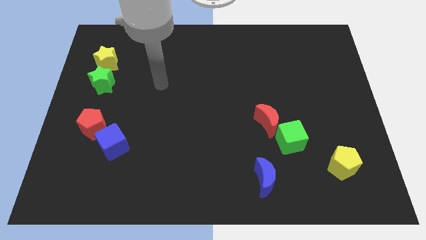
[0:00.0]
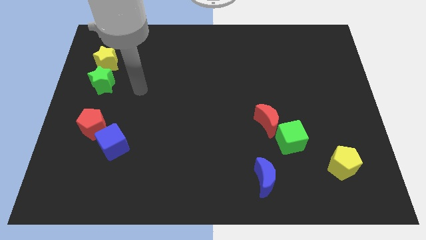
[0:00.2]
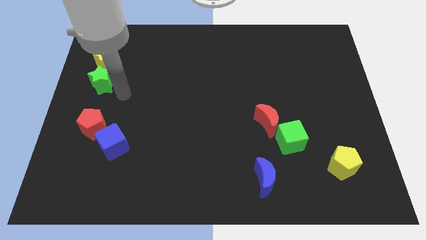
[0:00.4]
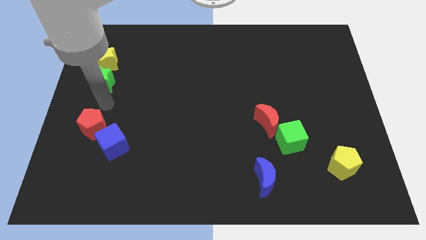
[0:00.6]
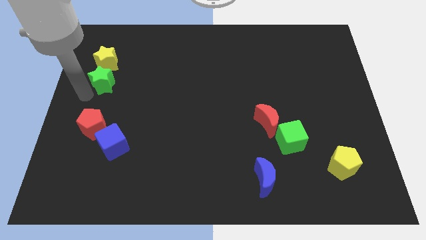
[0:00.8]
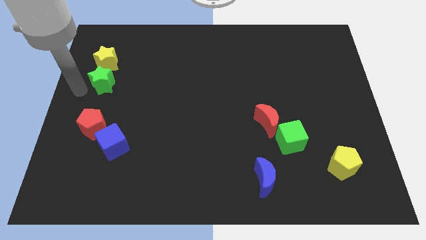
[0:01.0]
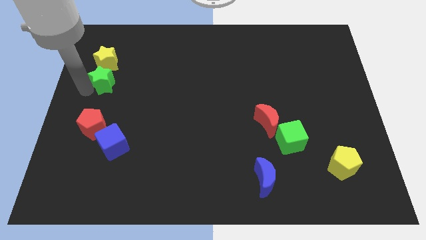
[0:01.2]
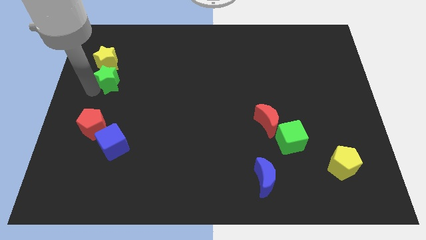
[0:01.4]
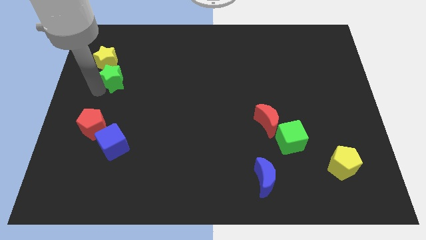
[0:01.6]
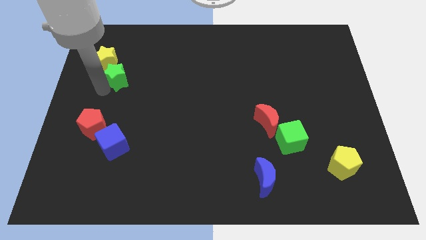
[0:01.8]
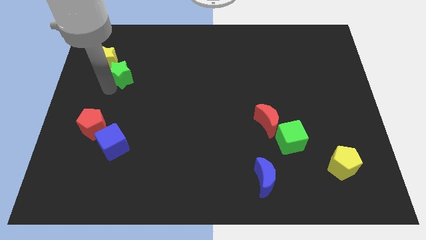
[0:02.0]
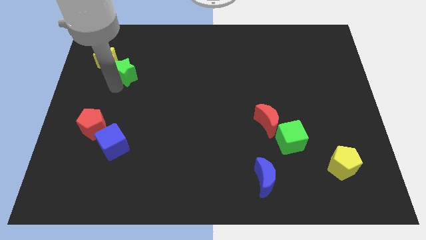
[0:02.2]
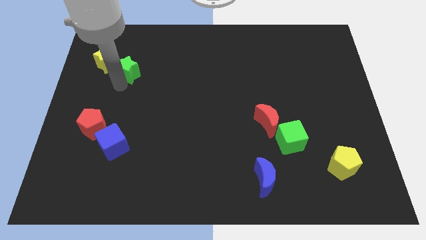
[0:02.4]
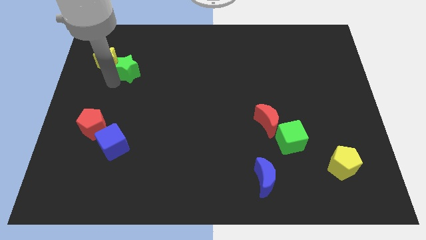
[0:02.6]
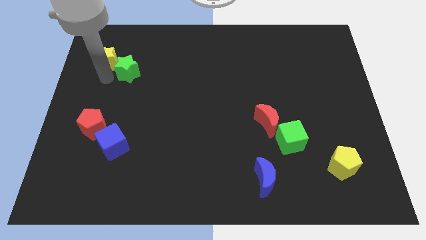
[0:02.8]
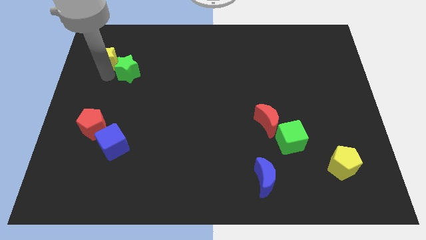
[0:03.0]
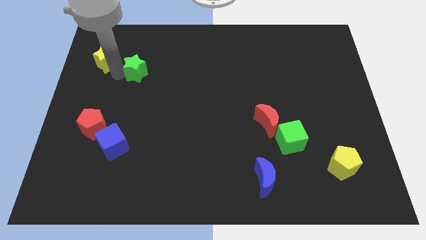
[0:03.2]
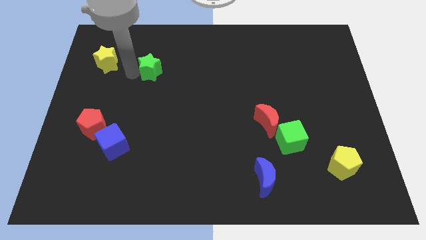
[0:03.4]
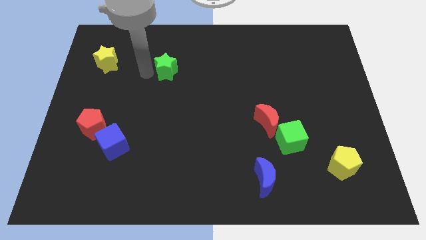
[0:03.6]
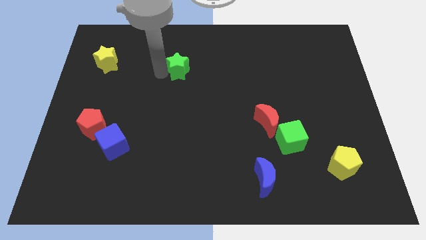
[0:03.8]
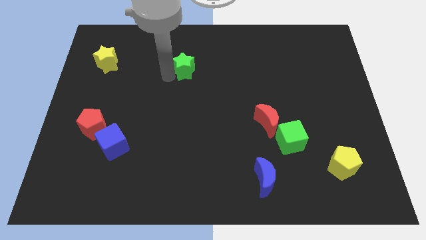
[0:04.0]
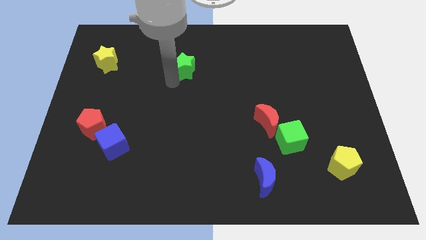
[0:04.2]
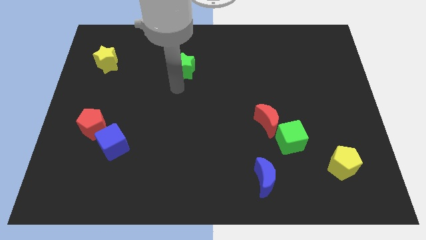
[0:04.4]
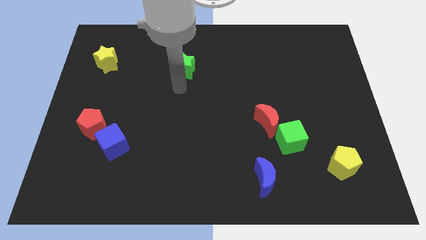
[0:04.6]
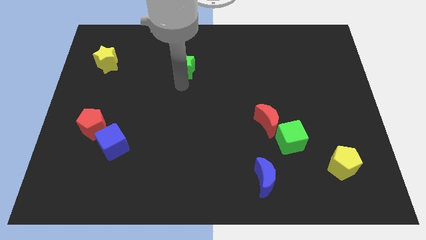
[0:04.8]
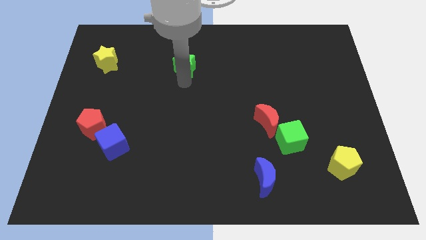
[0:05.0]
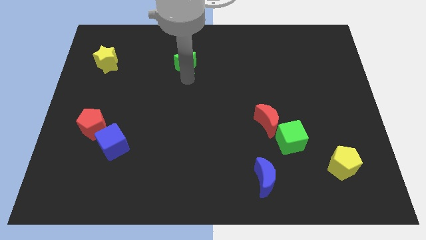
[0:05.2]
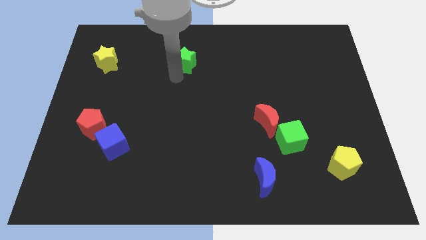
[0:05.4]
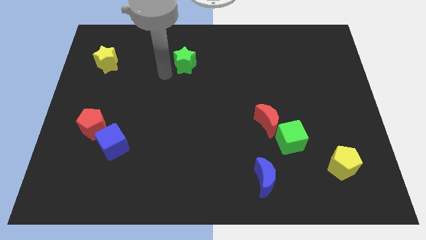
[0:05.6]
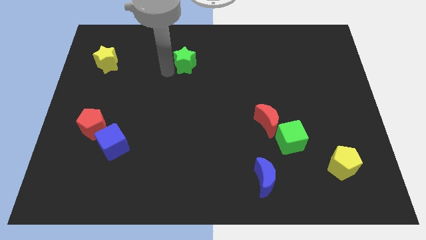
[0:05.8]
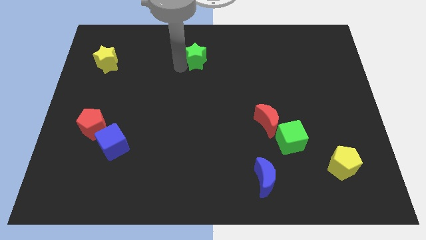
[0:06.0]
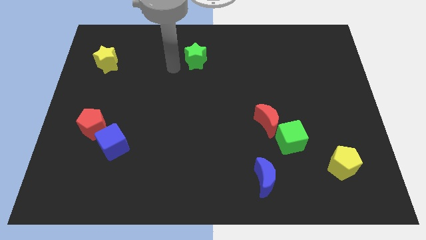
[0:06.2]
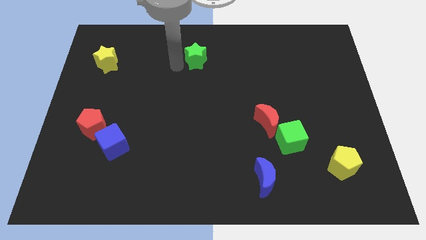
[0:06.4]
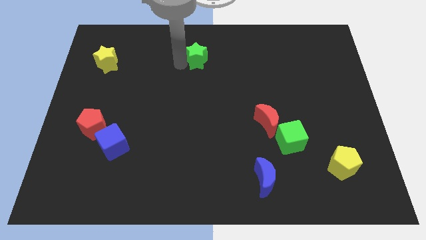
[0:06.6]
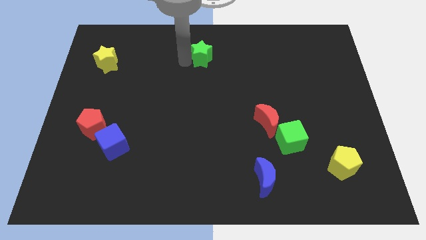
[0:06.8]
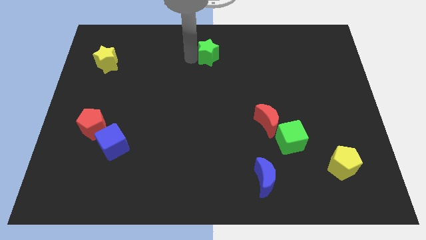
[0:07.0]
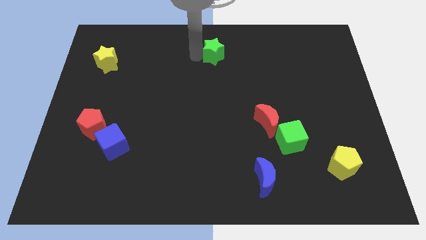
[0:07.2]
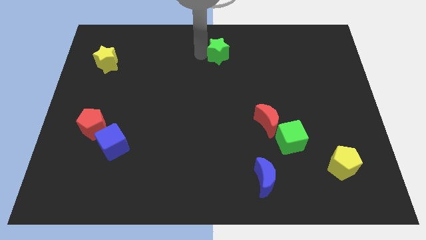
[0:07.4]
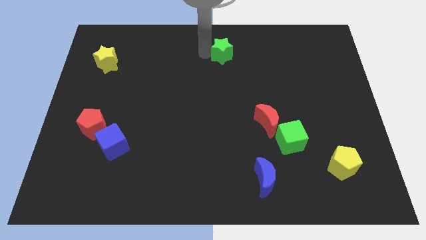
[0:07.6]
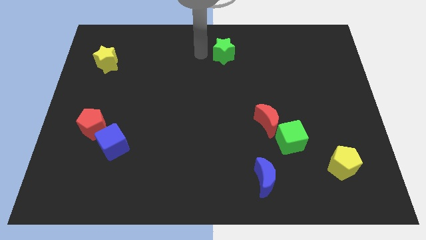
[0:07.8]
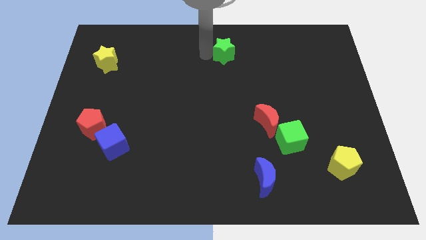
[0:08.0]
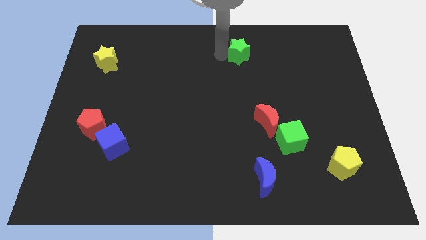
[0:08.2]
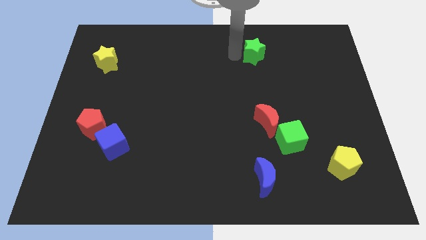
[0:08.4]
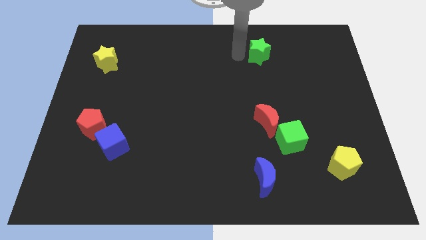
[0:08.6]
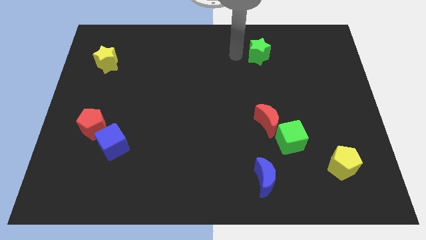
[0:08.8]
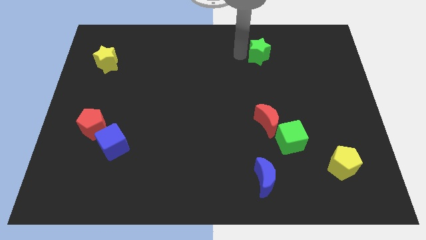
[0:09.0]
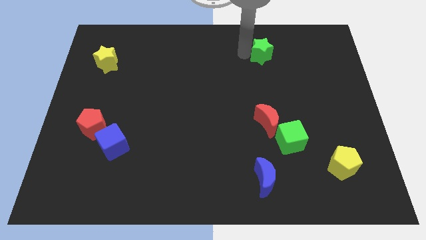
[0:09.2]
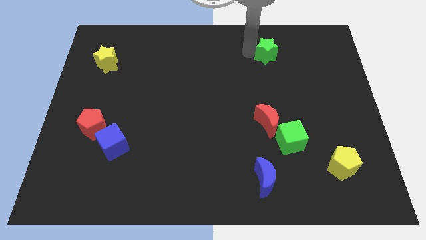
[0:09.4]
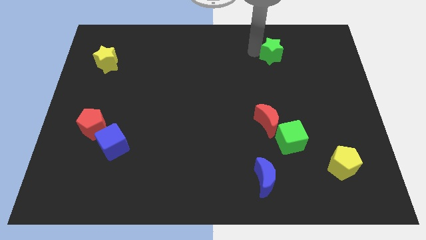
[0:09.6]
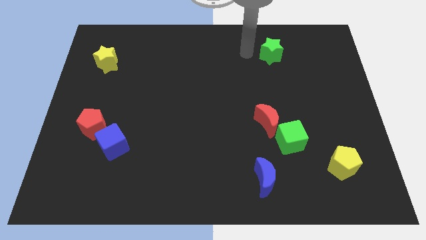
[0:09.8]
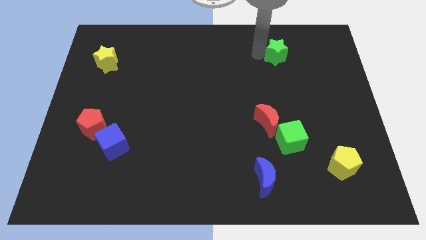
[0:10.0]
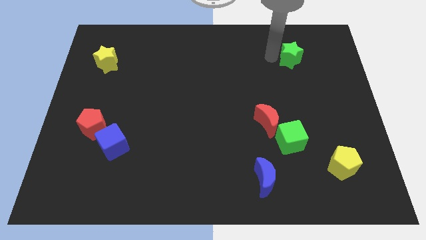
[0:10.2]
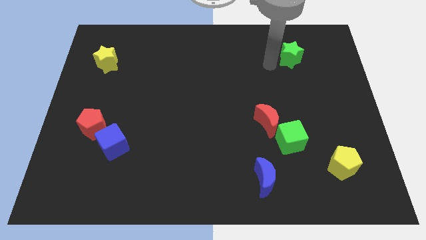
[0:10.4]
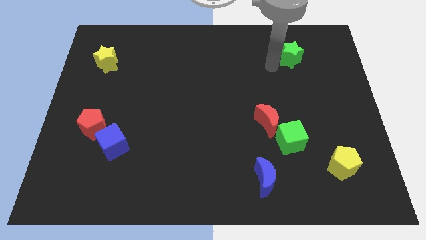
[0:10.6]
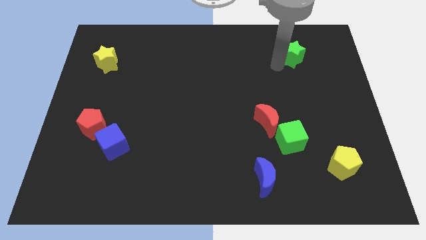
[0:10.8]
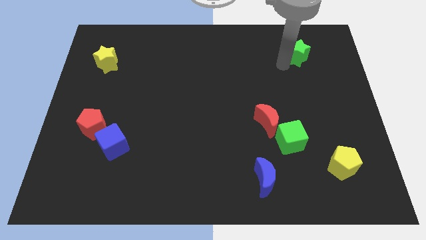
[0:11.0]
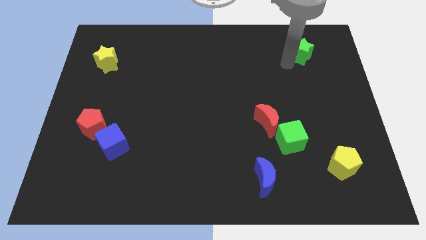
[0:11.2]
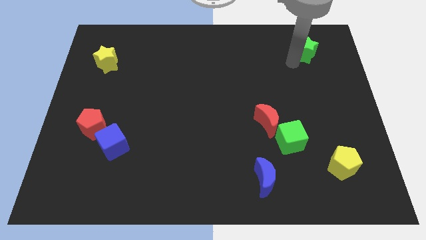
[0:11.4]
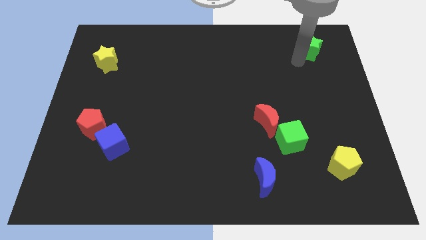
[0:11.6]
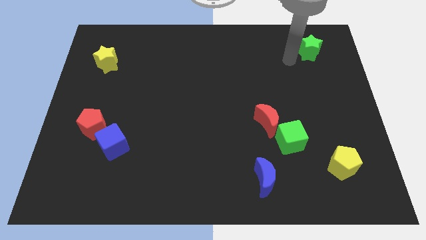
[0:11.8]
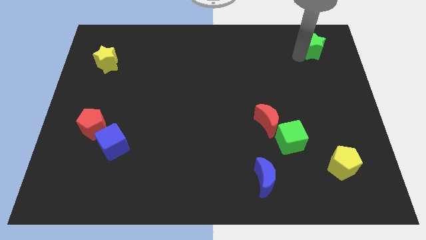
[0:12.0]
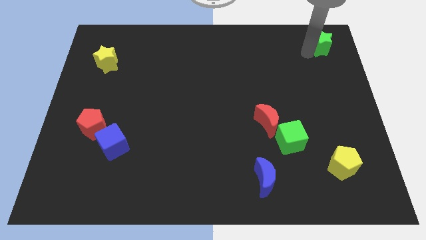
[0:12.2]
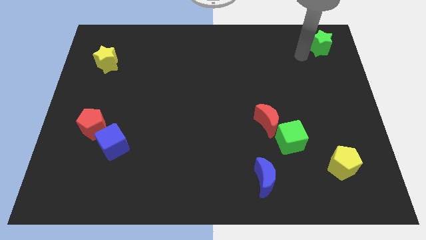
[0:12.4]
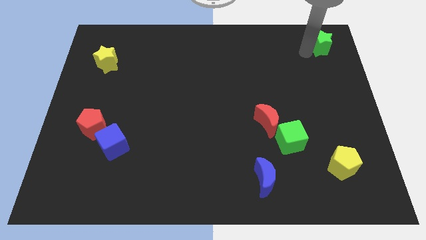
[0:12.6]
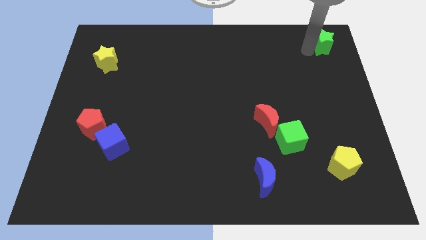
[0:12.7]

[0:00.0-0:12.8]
push the green star to the top right of the board

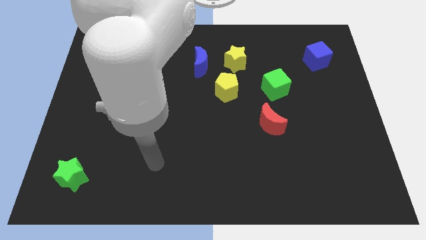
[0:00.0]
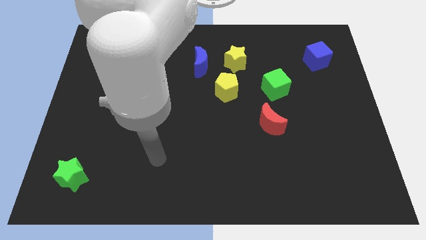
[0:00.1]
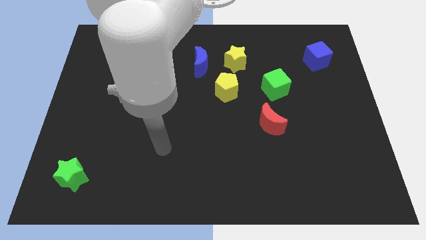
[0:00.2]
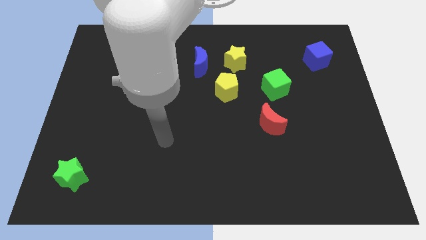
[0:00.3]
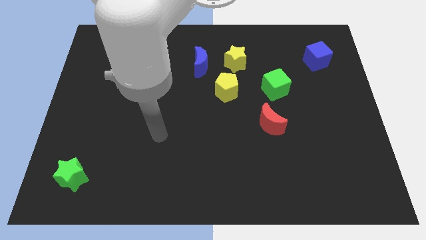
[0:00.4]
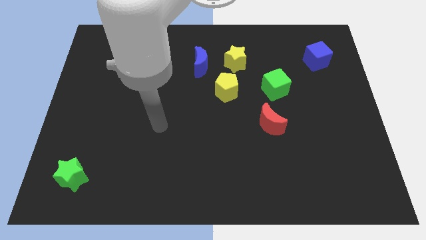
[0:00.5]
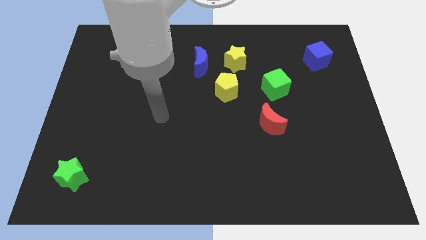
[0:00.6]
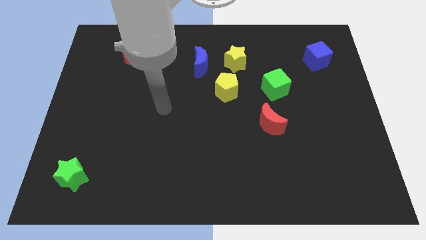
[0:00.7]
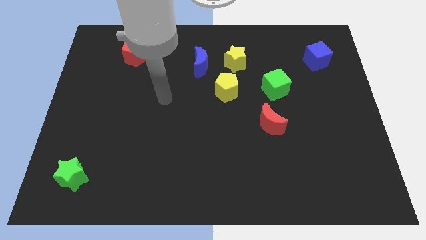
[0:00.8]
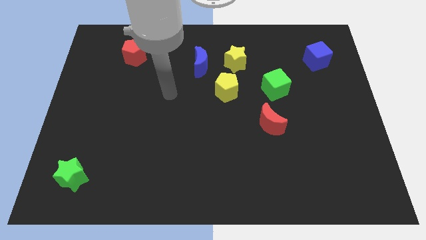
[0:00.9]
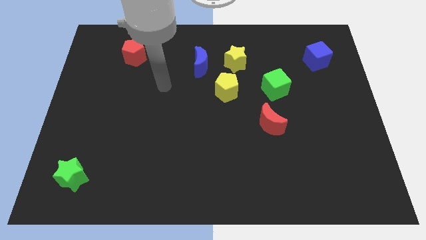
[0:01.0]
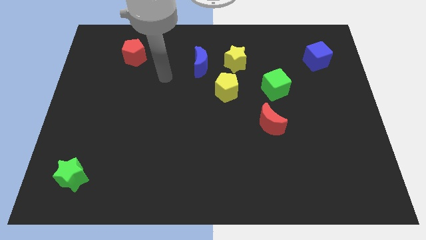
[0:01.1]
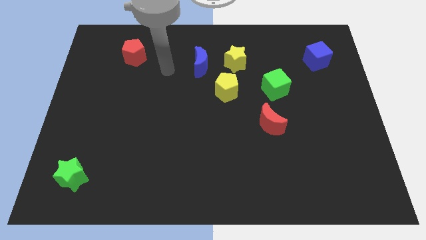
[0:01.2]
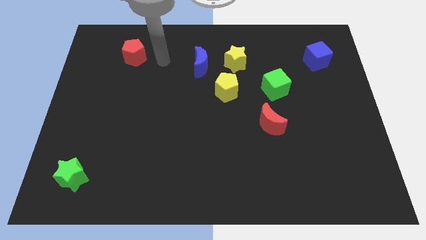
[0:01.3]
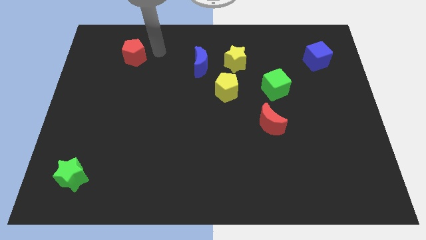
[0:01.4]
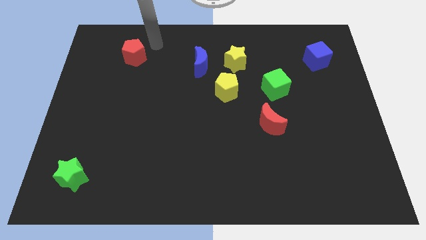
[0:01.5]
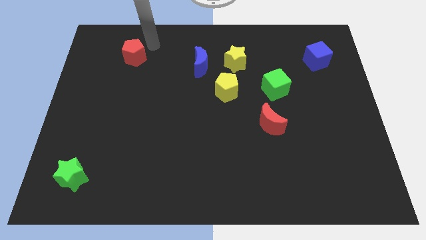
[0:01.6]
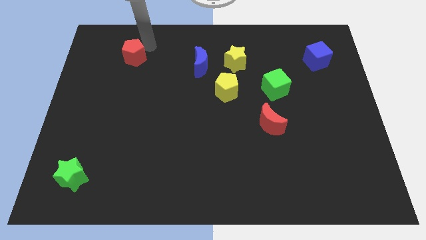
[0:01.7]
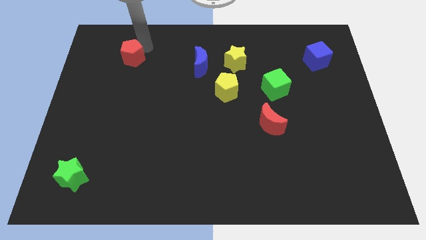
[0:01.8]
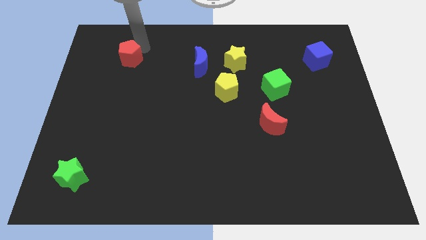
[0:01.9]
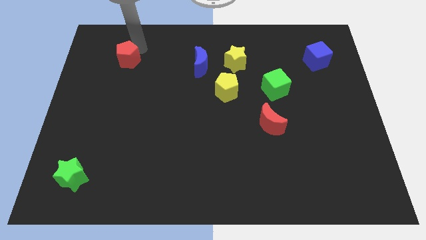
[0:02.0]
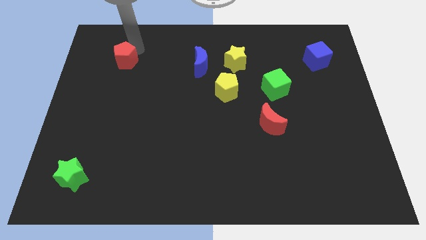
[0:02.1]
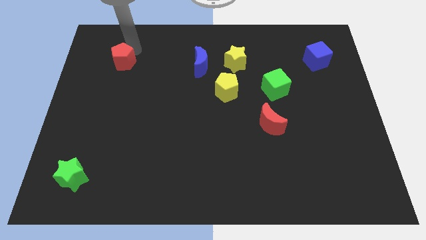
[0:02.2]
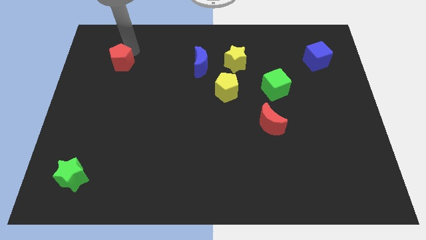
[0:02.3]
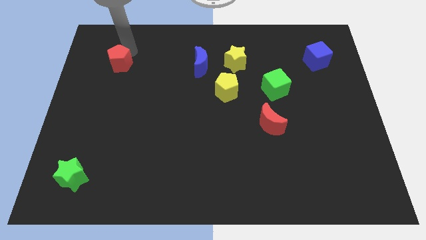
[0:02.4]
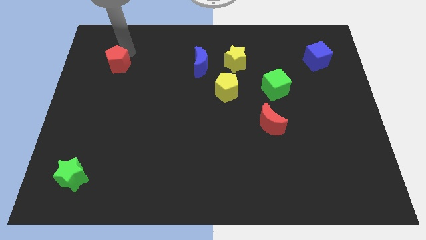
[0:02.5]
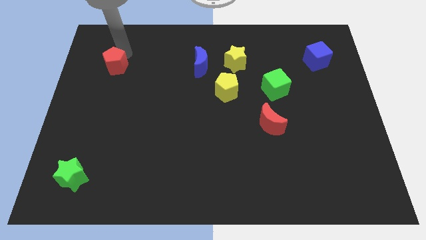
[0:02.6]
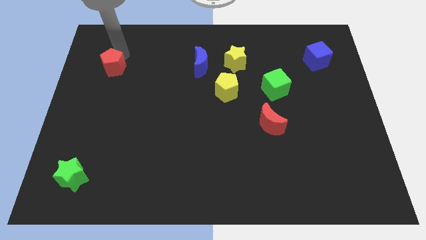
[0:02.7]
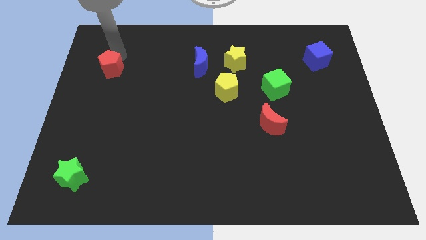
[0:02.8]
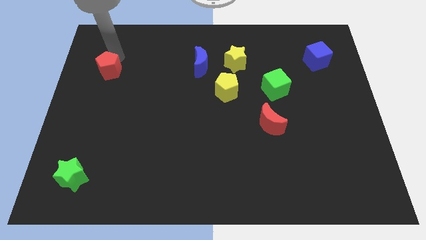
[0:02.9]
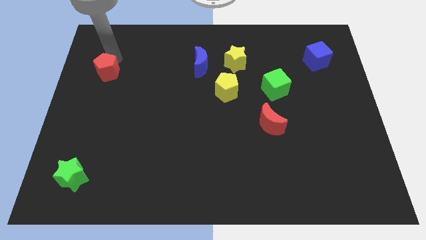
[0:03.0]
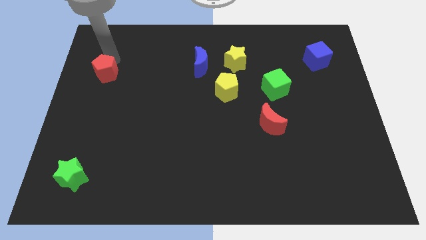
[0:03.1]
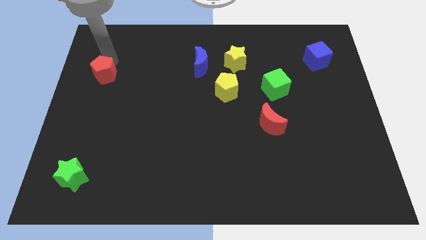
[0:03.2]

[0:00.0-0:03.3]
move the red pentagon to the center left
